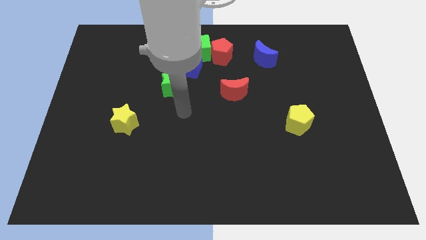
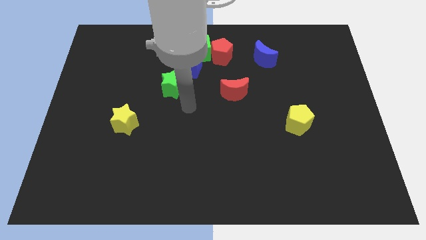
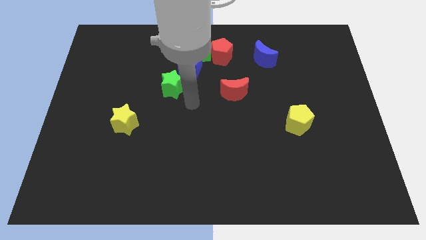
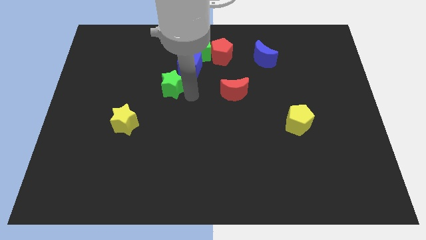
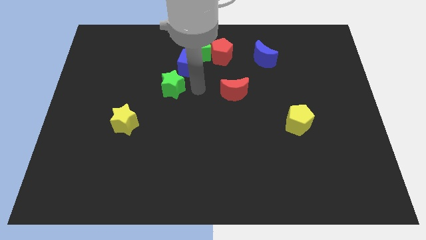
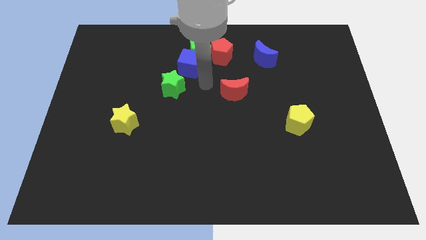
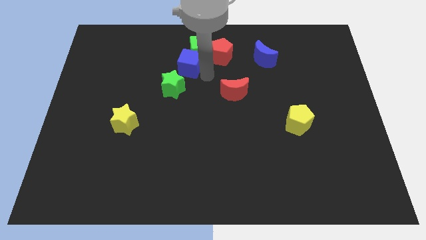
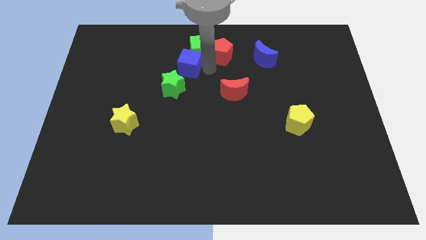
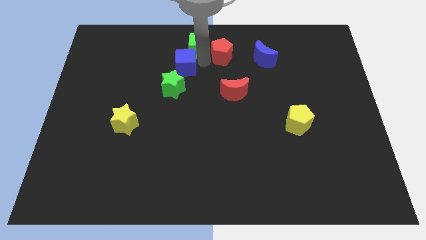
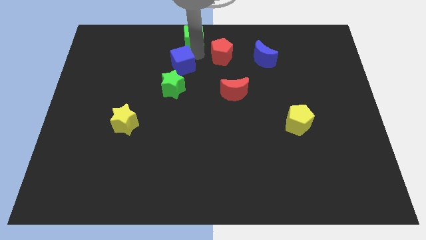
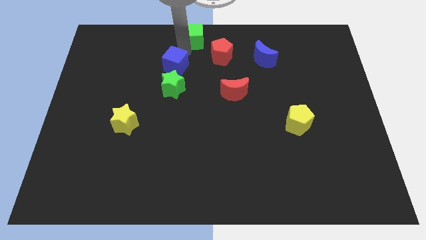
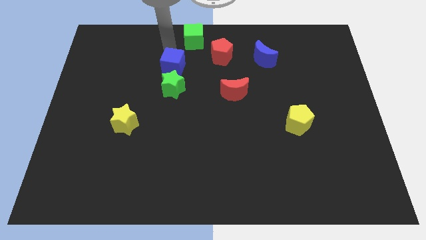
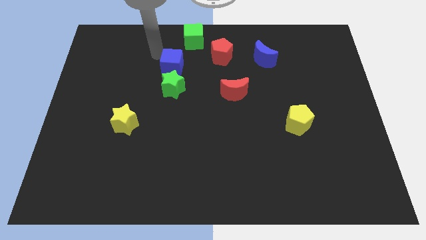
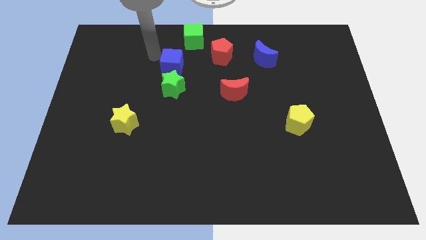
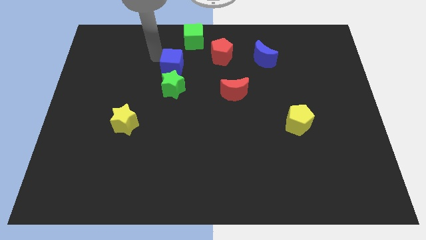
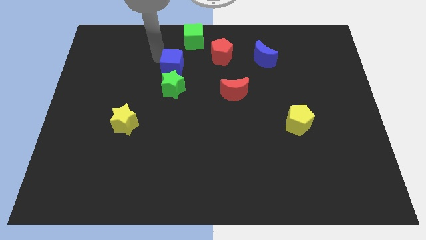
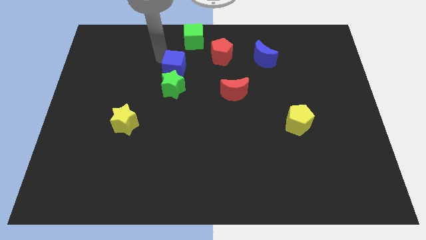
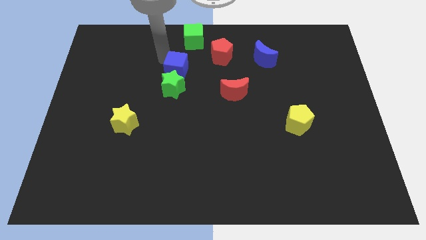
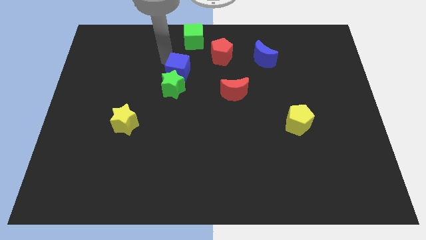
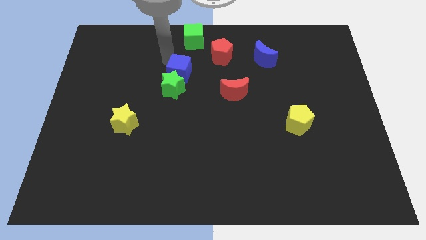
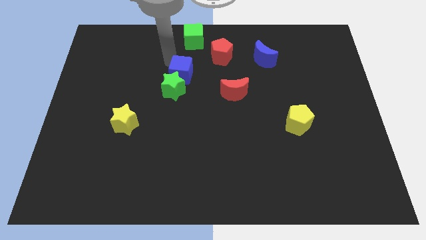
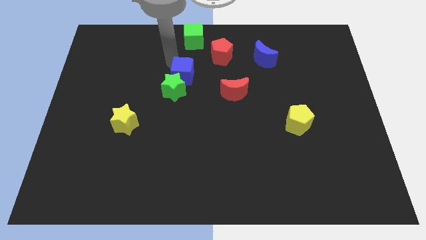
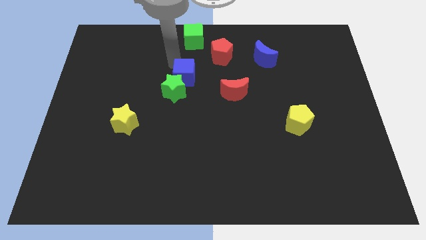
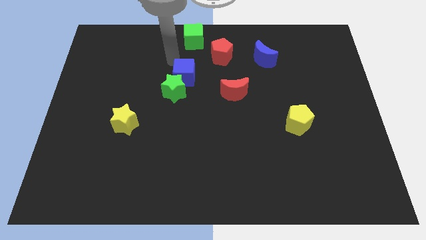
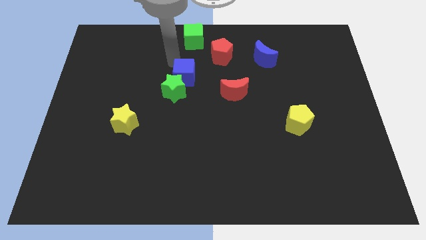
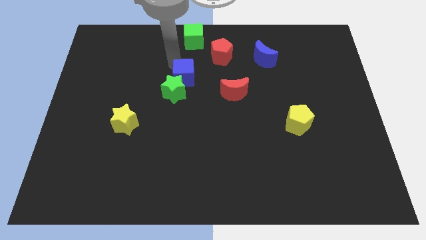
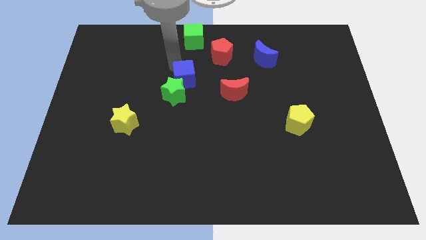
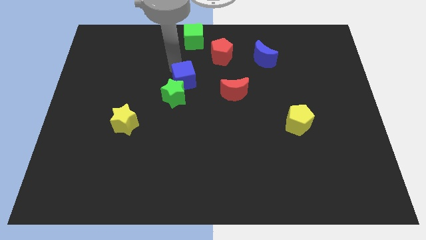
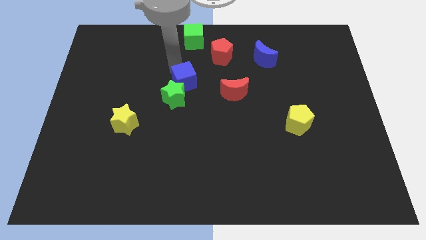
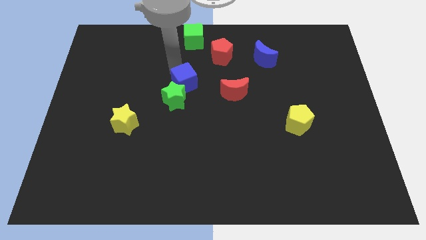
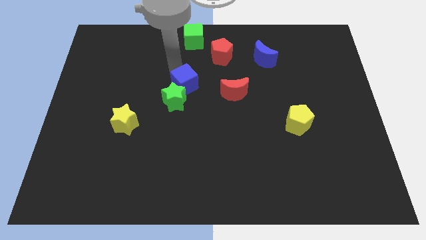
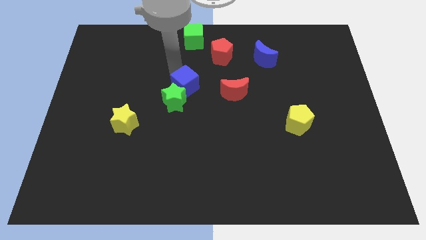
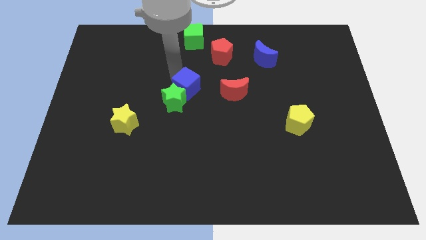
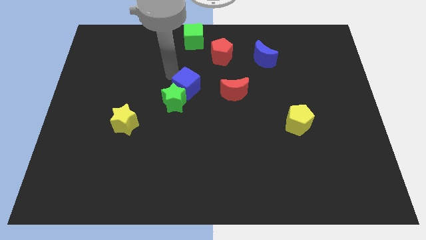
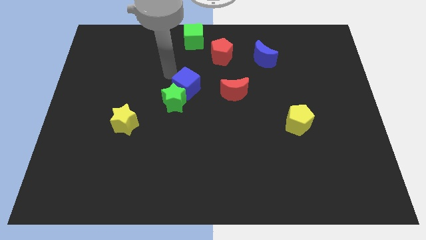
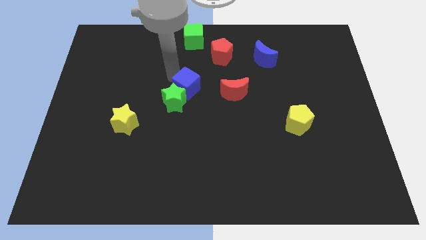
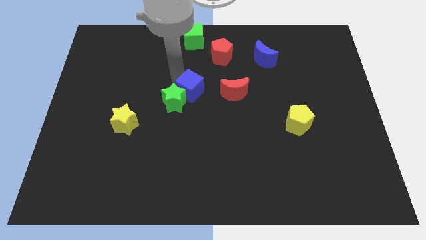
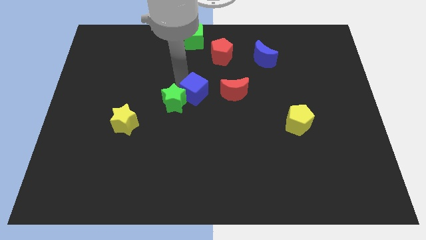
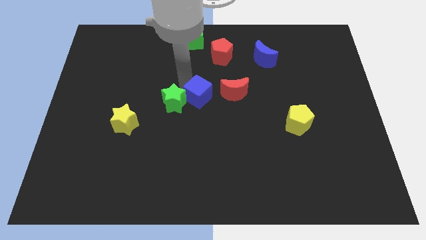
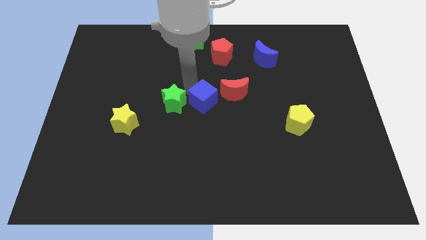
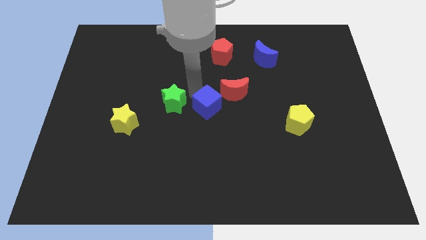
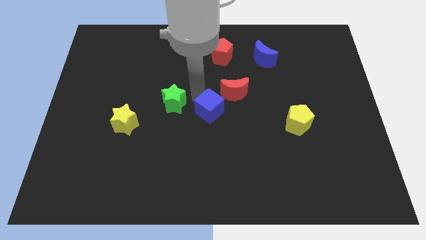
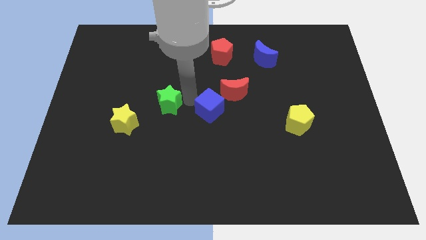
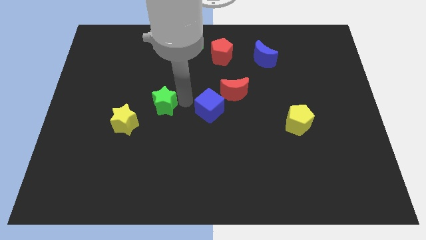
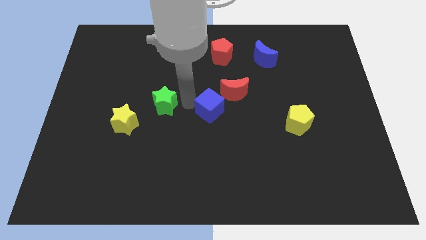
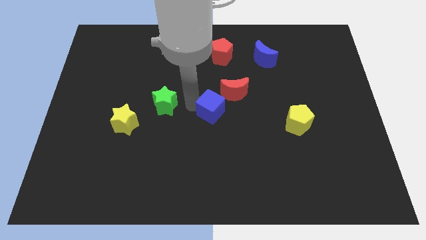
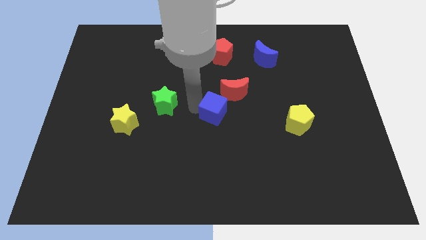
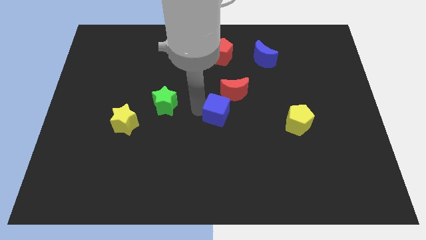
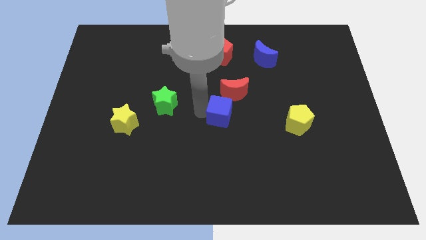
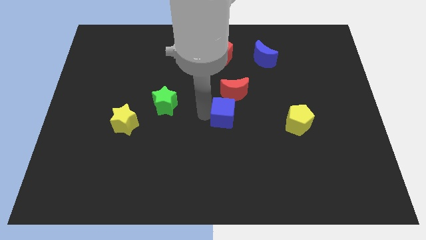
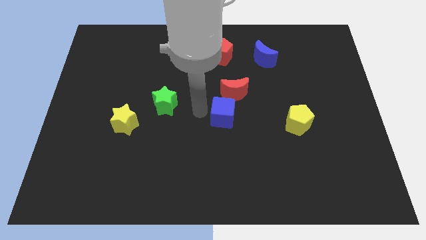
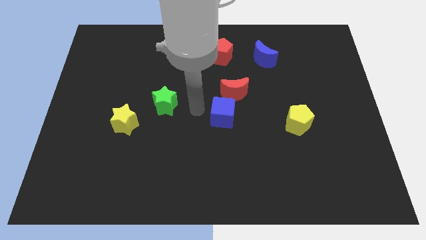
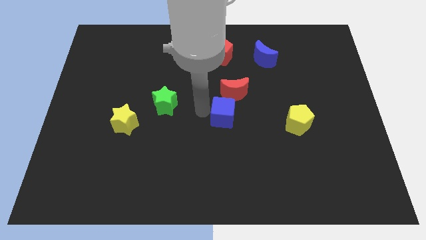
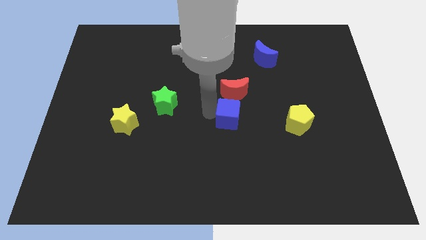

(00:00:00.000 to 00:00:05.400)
push the blue cube to the left of the yellow pentagon

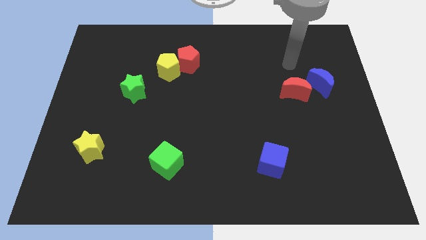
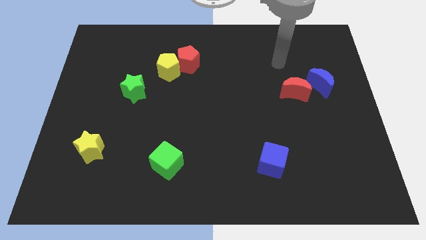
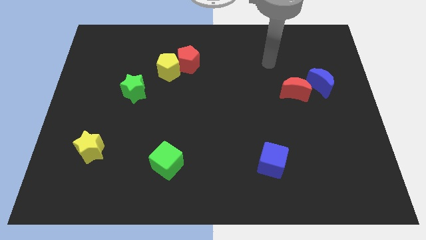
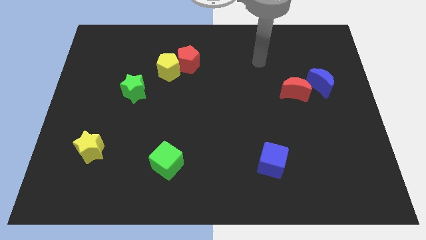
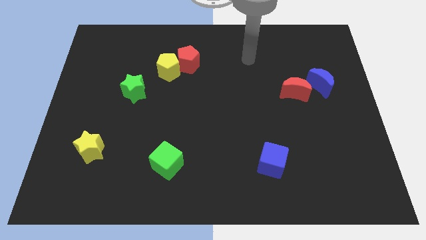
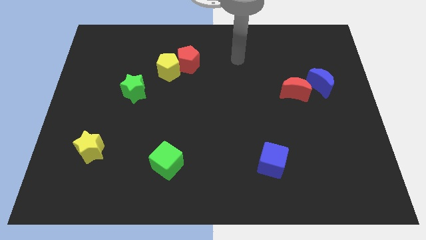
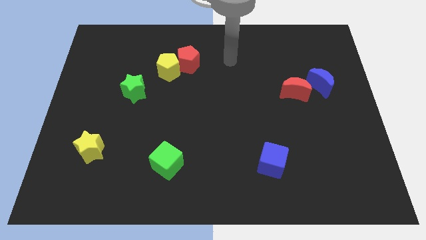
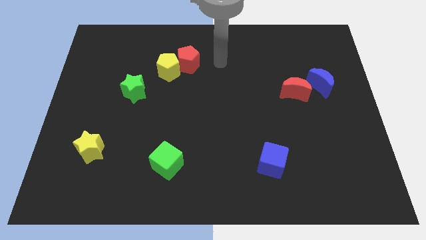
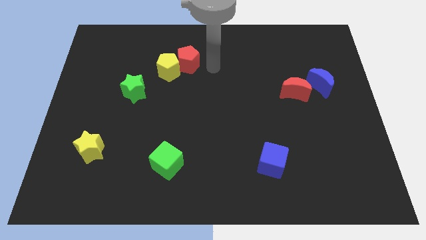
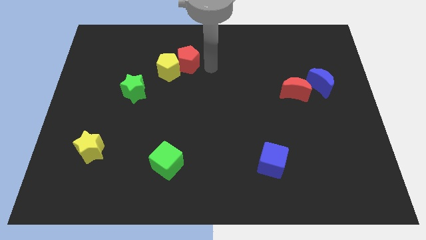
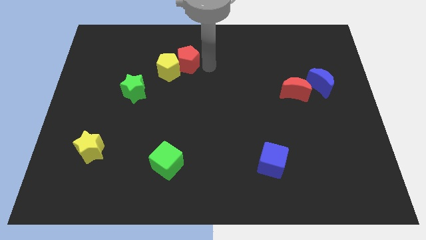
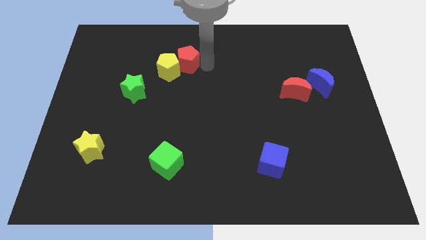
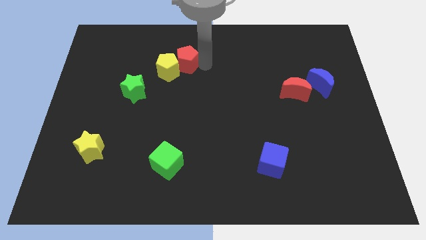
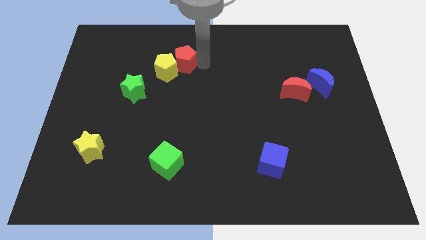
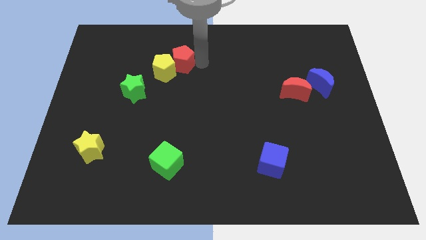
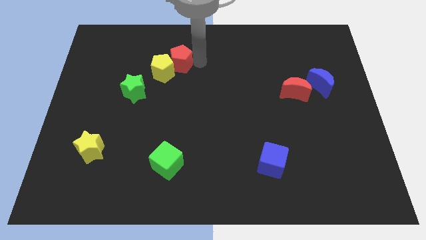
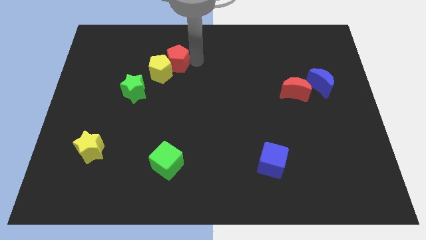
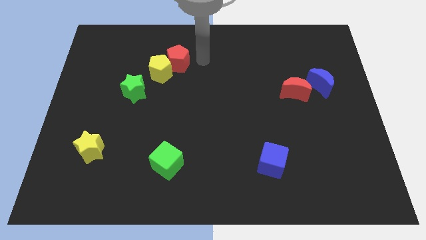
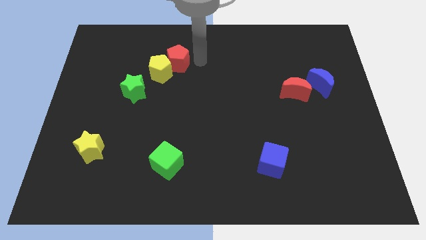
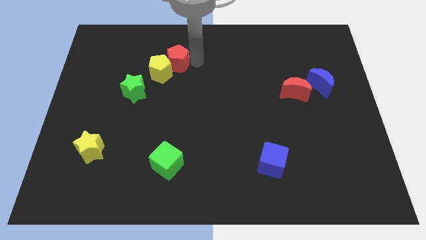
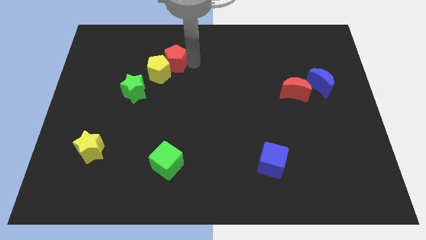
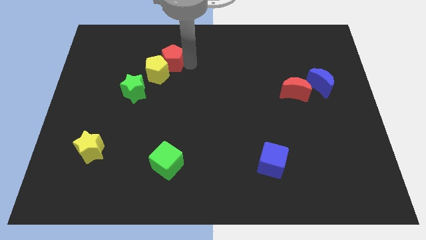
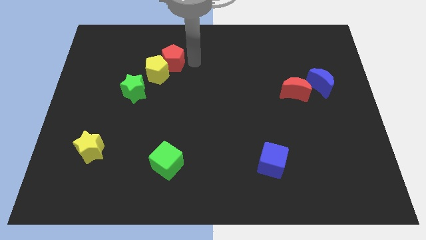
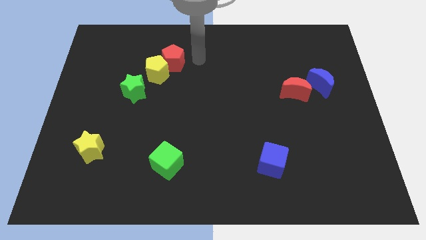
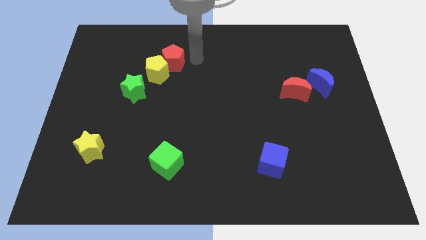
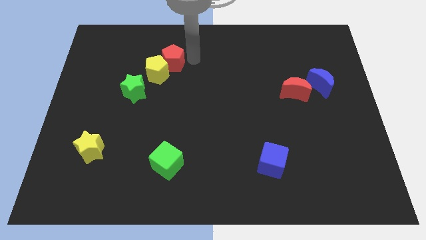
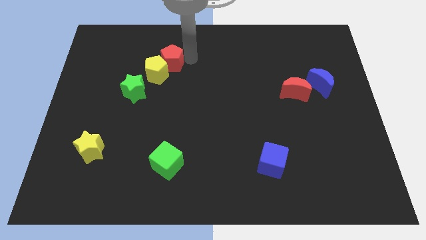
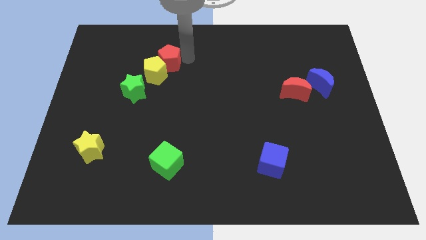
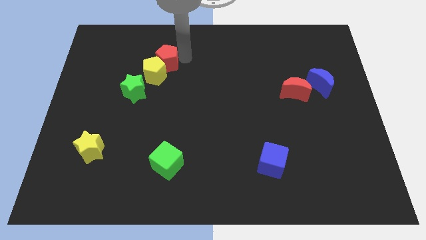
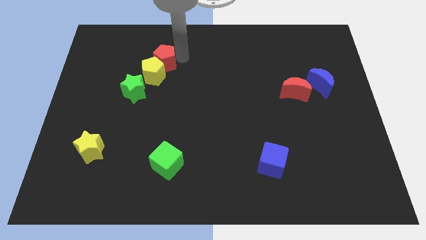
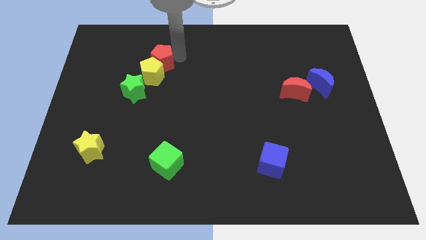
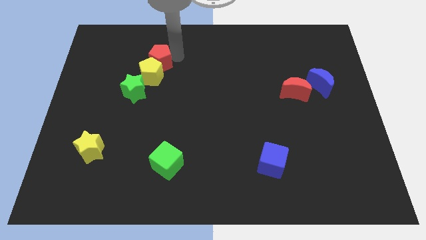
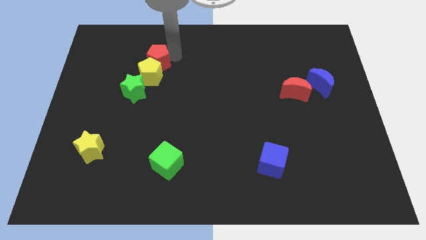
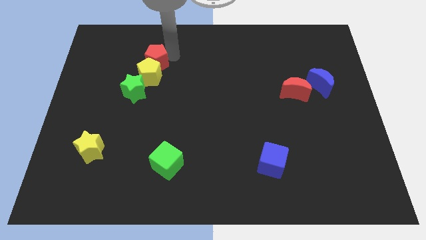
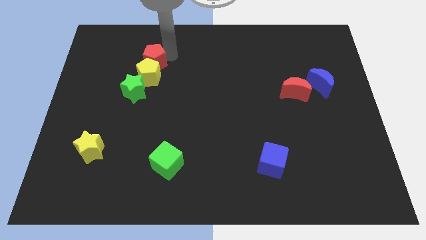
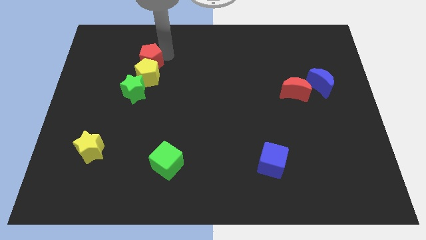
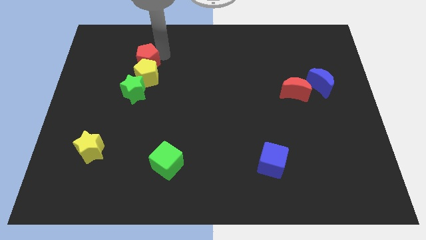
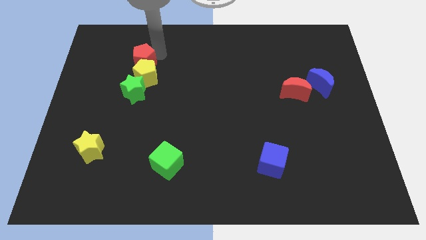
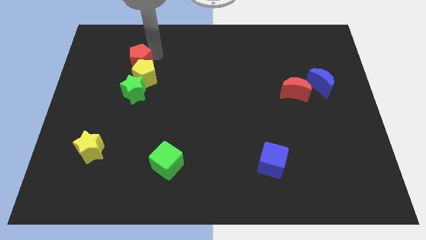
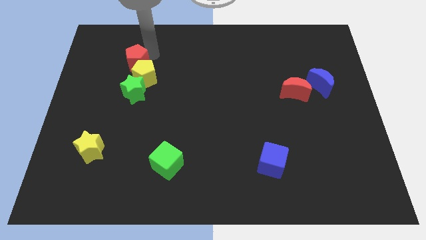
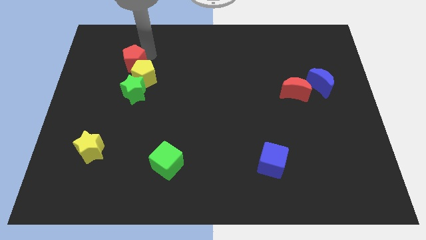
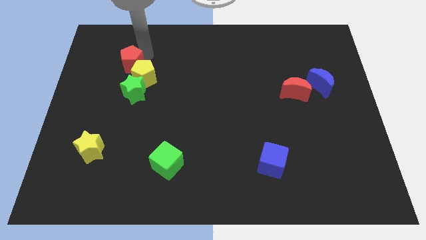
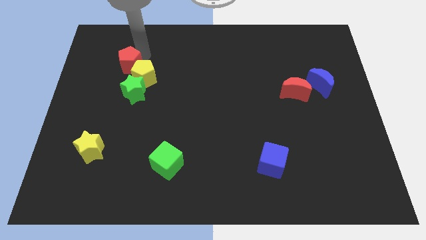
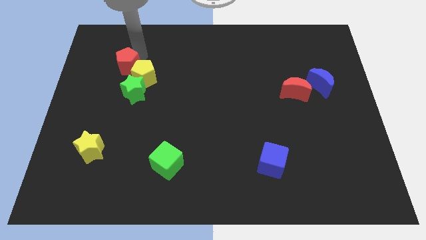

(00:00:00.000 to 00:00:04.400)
move the red pentagon to the top left of the green star
